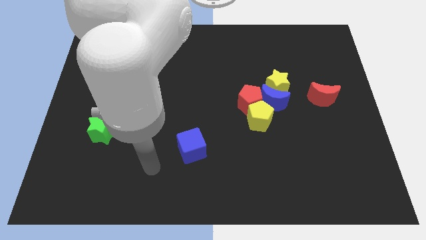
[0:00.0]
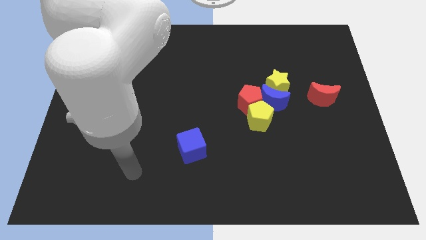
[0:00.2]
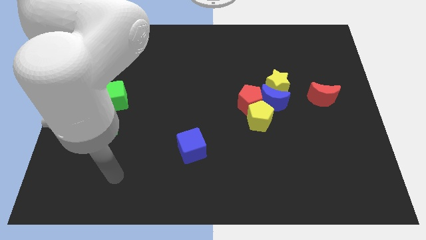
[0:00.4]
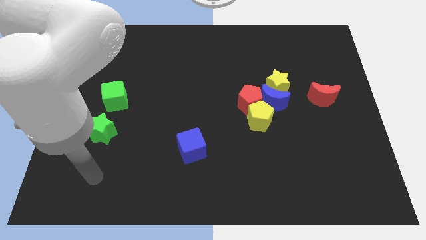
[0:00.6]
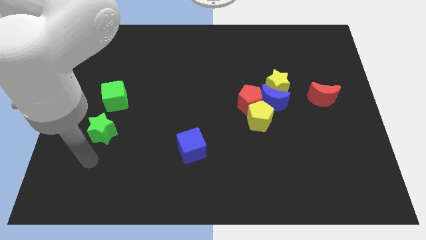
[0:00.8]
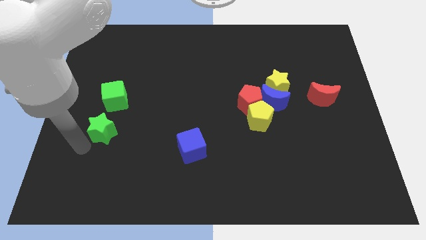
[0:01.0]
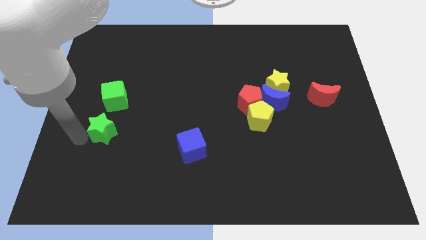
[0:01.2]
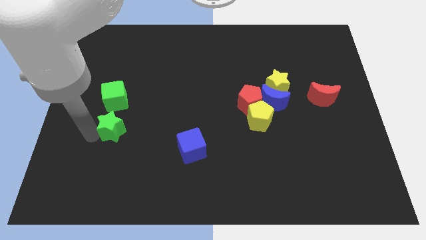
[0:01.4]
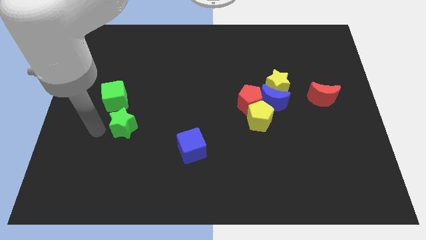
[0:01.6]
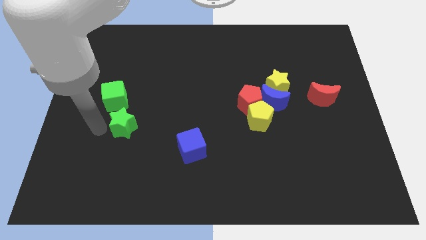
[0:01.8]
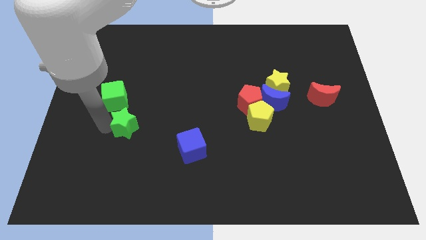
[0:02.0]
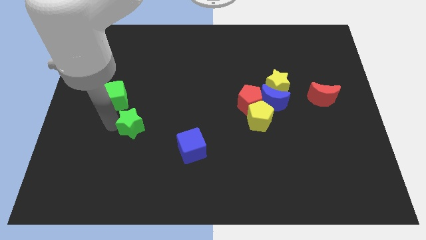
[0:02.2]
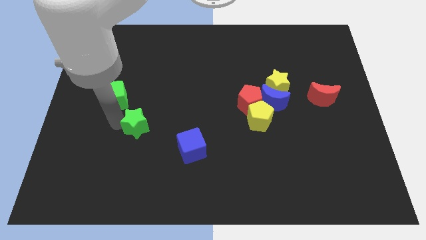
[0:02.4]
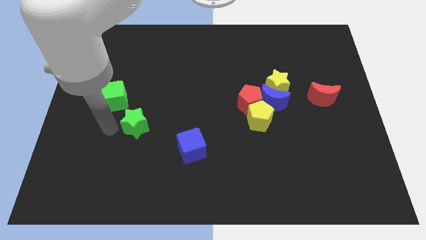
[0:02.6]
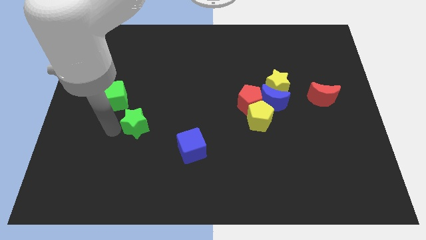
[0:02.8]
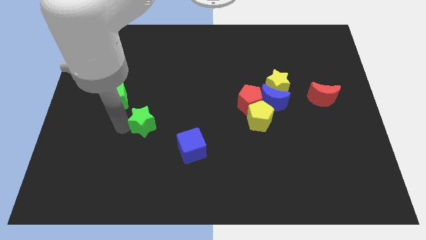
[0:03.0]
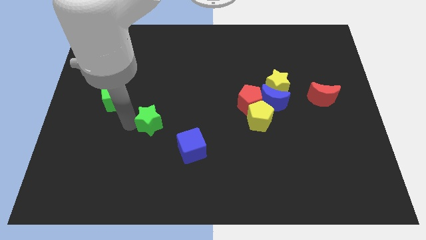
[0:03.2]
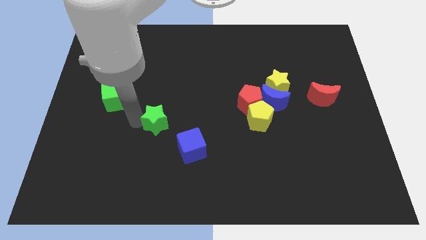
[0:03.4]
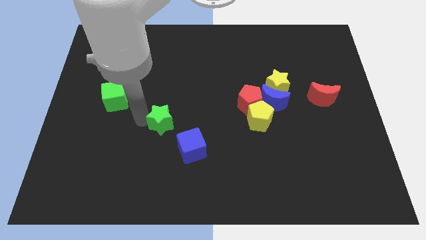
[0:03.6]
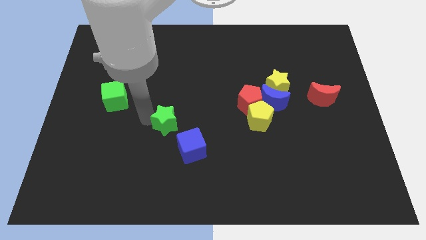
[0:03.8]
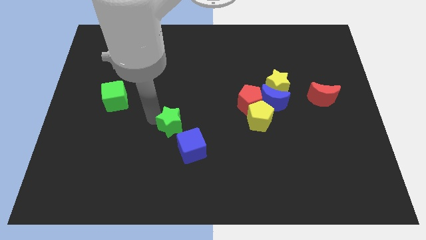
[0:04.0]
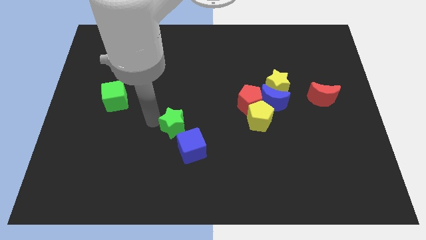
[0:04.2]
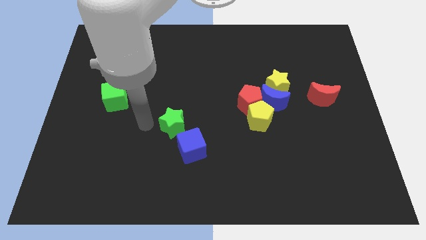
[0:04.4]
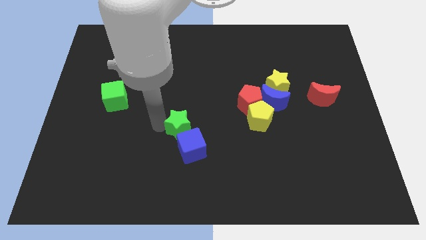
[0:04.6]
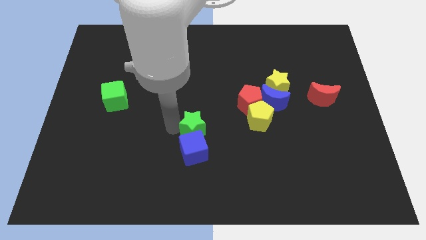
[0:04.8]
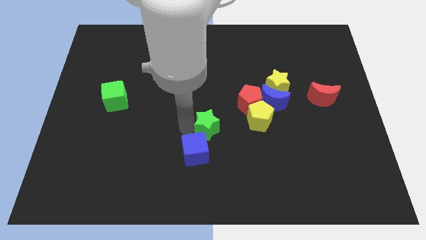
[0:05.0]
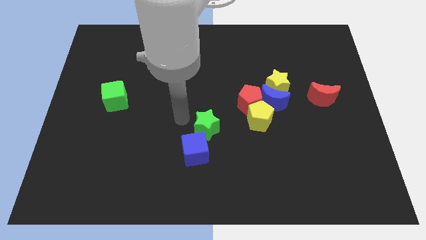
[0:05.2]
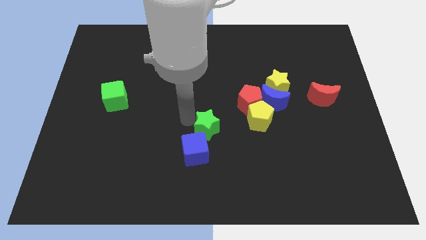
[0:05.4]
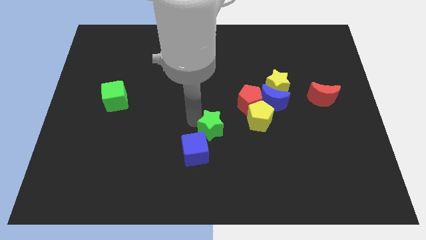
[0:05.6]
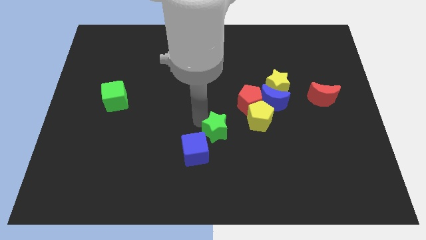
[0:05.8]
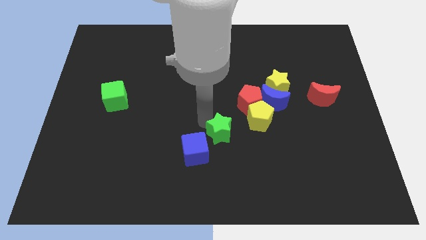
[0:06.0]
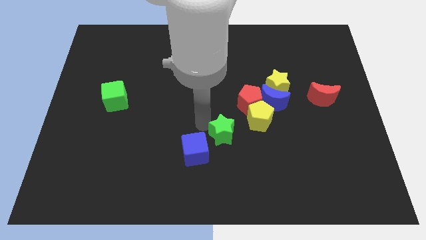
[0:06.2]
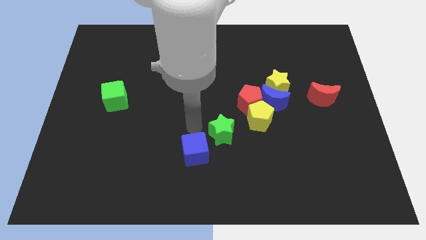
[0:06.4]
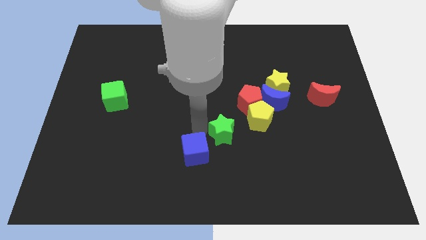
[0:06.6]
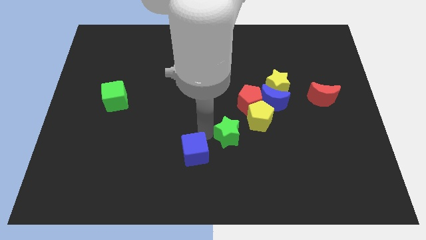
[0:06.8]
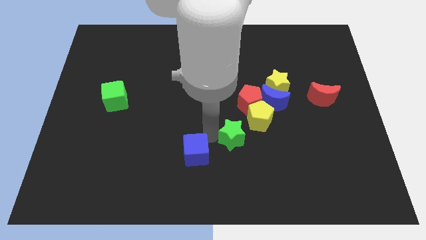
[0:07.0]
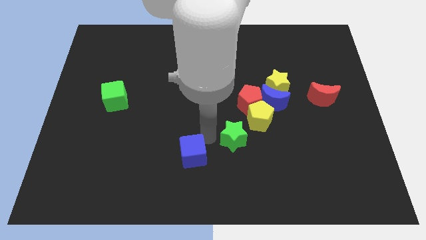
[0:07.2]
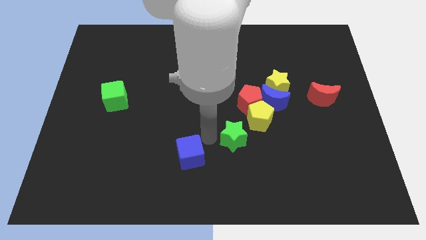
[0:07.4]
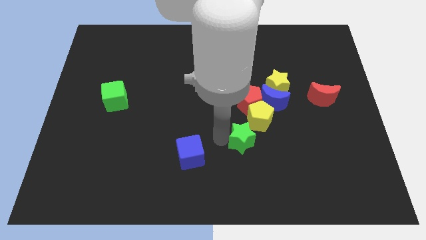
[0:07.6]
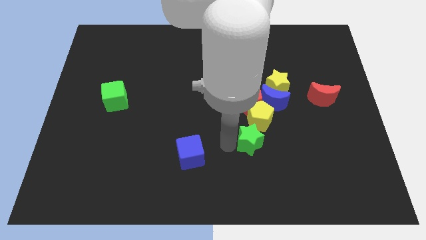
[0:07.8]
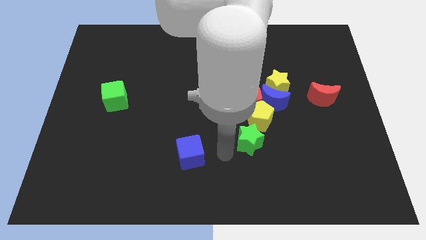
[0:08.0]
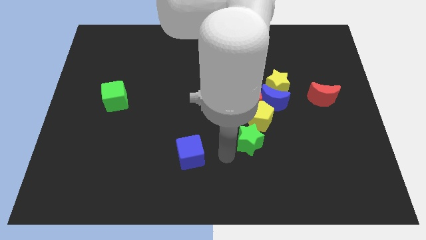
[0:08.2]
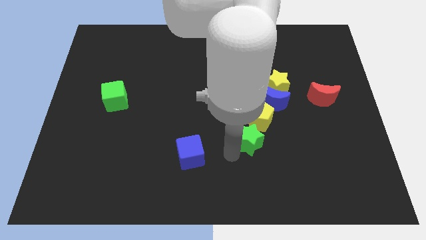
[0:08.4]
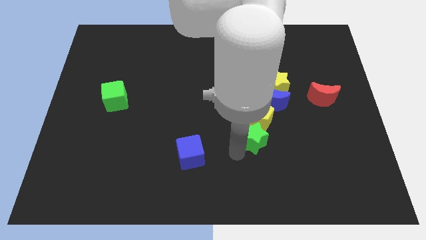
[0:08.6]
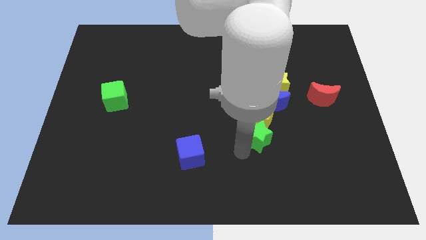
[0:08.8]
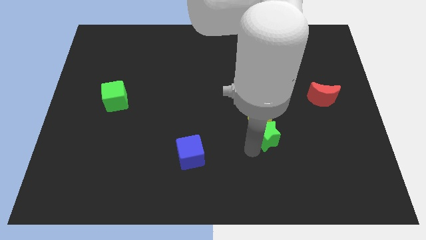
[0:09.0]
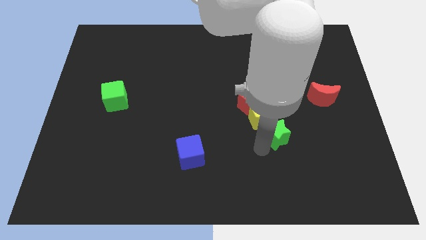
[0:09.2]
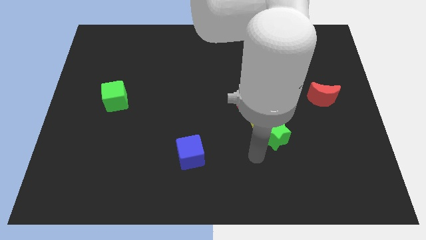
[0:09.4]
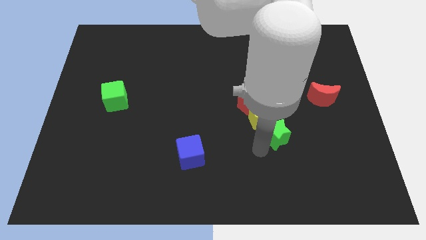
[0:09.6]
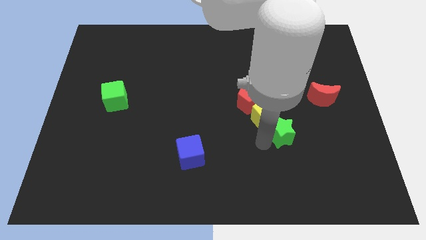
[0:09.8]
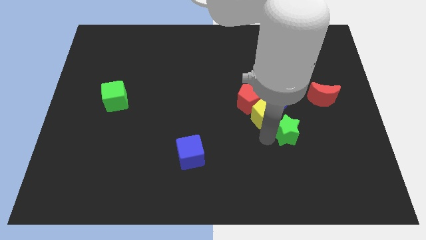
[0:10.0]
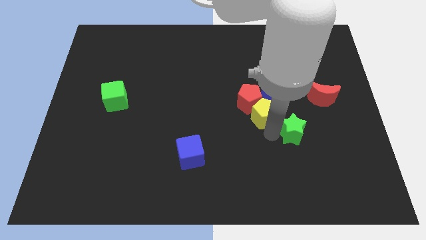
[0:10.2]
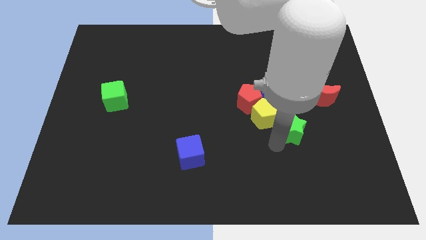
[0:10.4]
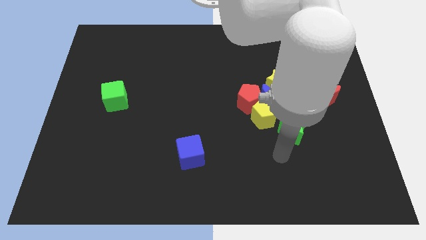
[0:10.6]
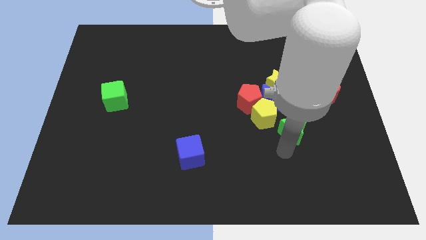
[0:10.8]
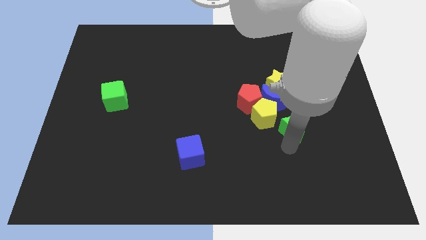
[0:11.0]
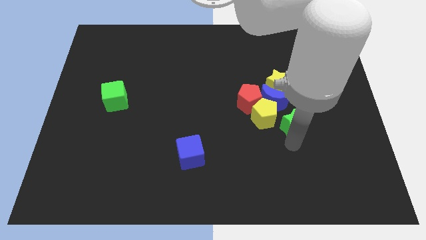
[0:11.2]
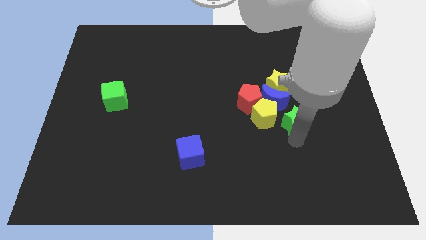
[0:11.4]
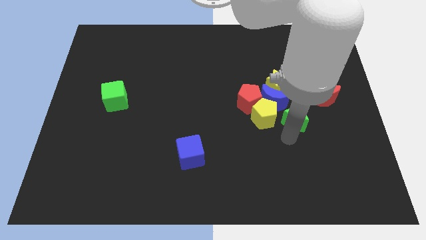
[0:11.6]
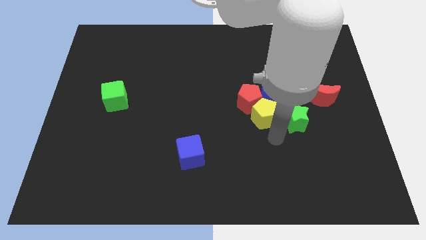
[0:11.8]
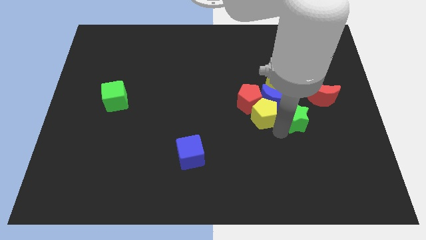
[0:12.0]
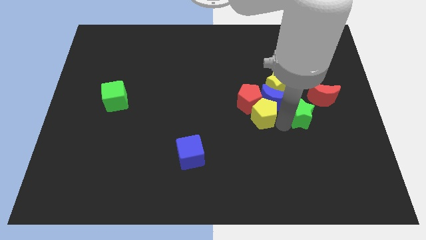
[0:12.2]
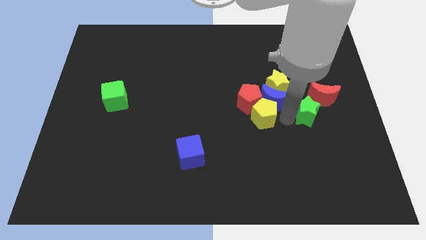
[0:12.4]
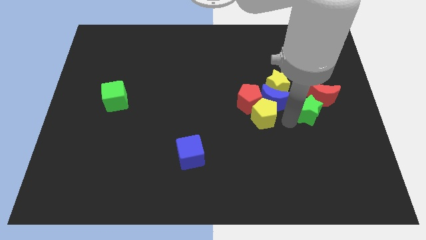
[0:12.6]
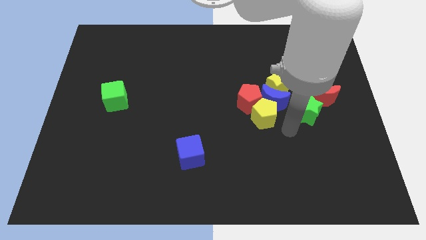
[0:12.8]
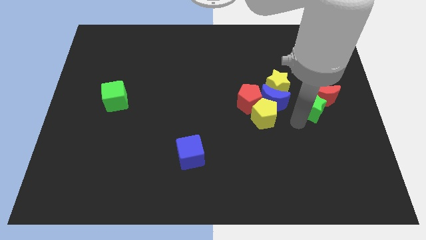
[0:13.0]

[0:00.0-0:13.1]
move the green star next to the red moon

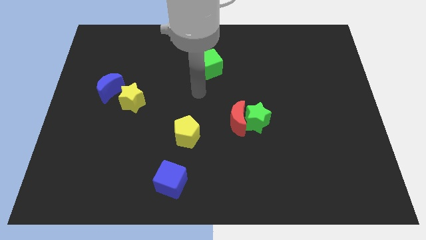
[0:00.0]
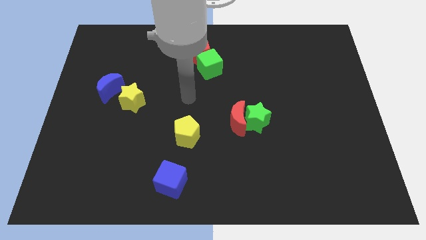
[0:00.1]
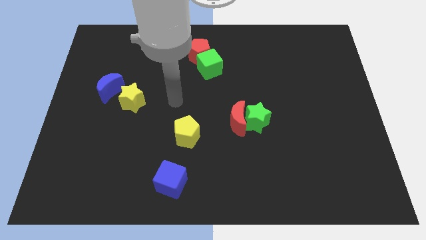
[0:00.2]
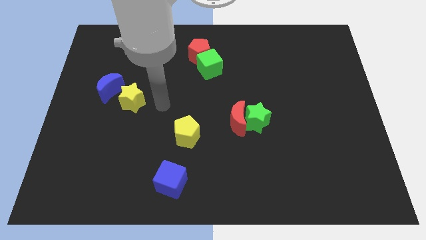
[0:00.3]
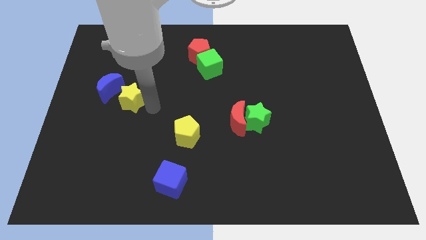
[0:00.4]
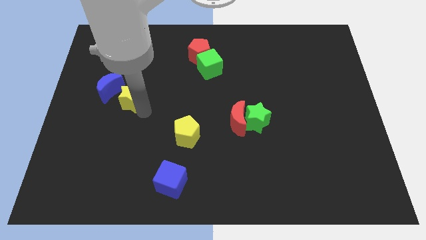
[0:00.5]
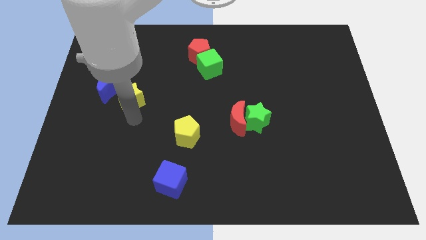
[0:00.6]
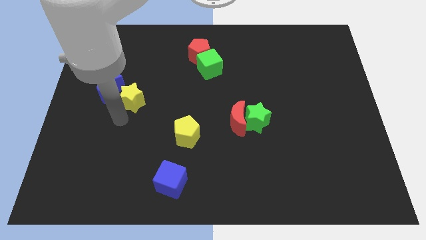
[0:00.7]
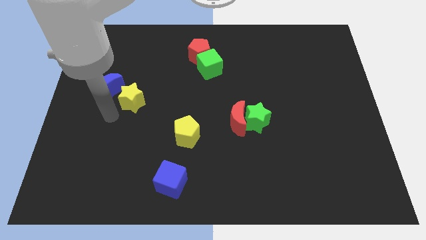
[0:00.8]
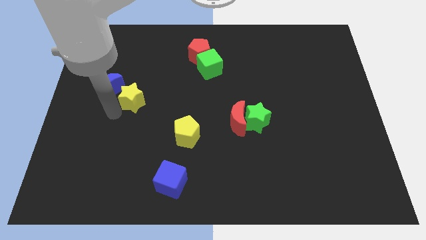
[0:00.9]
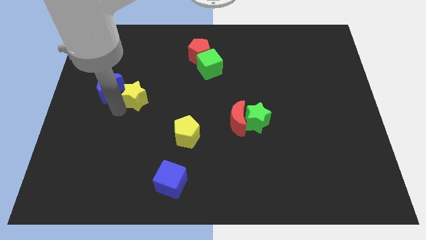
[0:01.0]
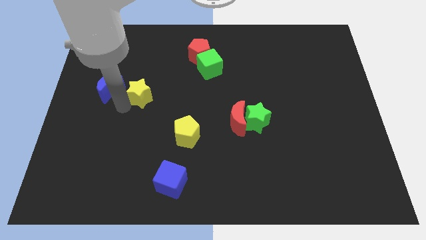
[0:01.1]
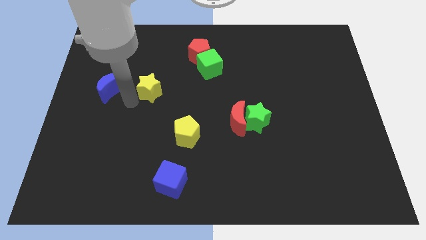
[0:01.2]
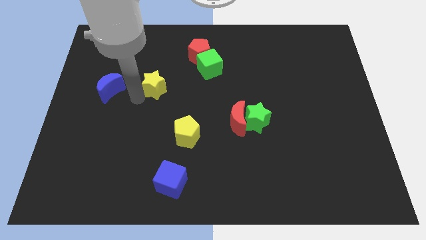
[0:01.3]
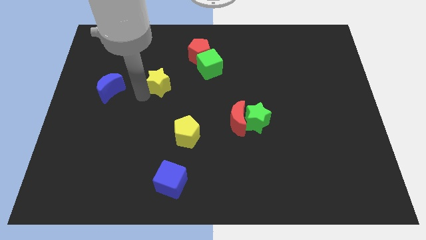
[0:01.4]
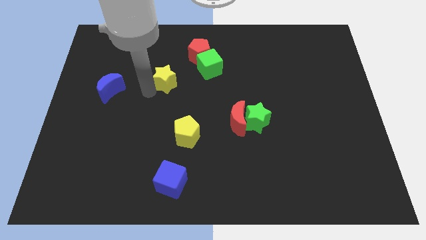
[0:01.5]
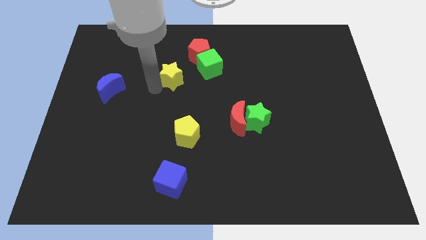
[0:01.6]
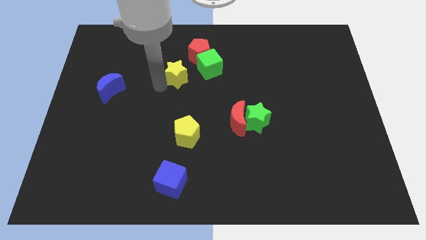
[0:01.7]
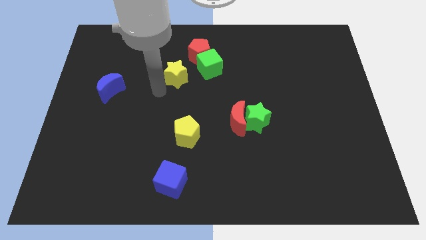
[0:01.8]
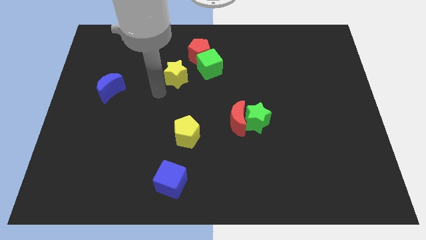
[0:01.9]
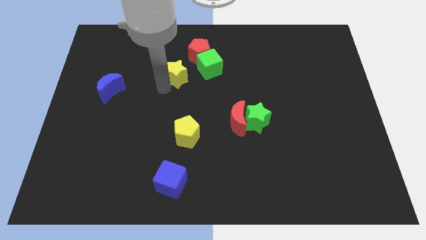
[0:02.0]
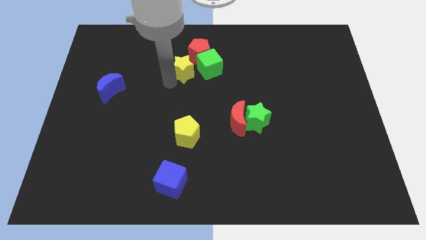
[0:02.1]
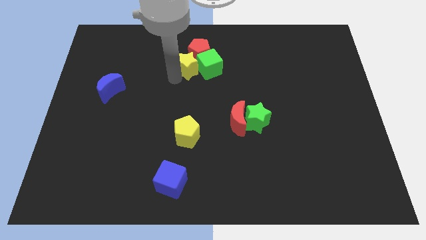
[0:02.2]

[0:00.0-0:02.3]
slide the yellow star next to the red pentagon
